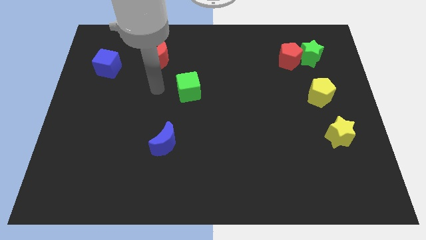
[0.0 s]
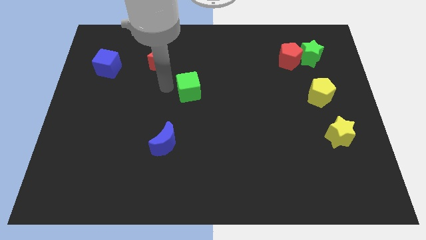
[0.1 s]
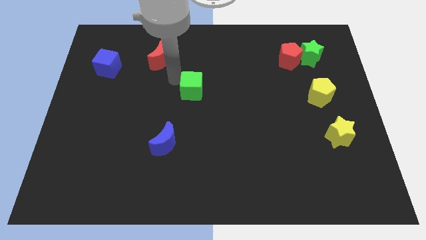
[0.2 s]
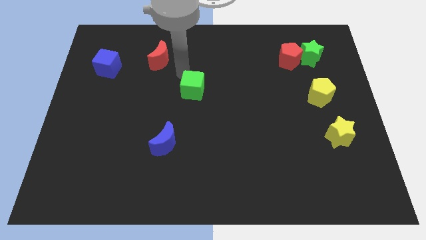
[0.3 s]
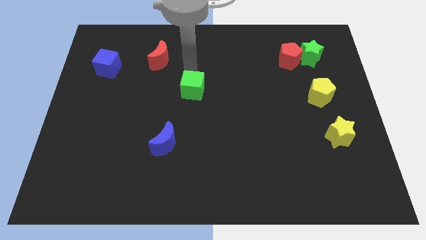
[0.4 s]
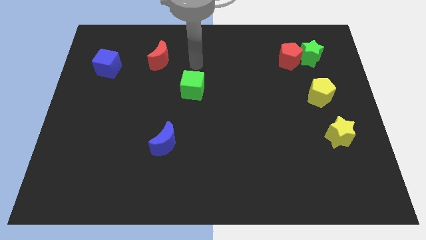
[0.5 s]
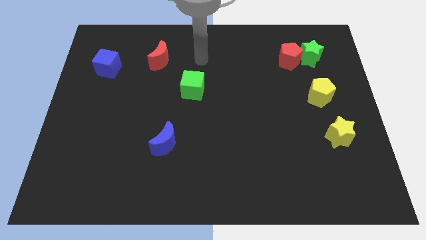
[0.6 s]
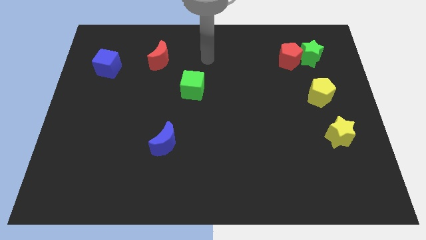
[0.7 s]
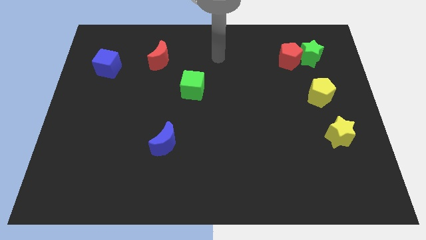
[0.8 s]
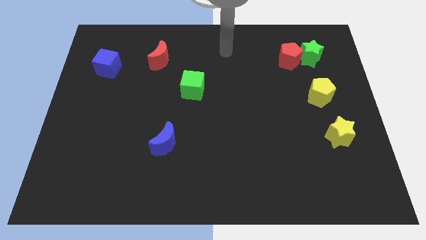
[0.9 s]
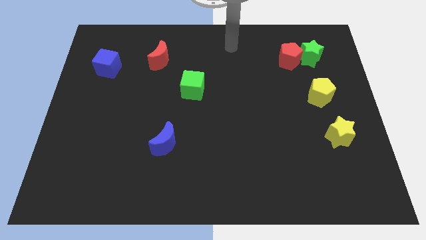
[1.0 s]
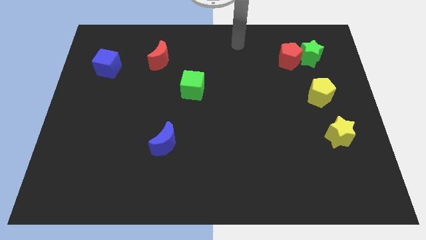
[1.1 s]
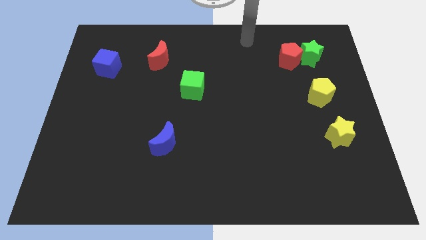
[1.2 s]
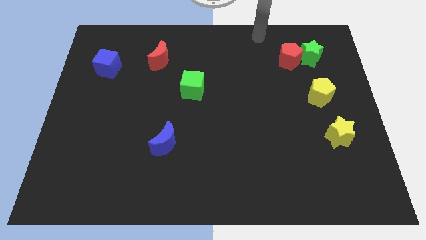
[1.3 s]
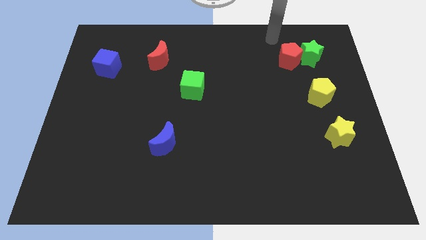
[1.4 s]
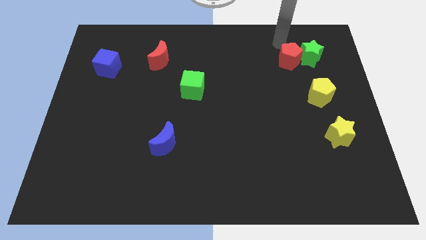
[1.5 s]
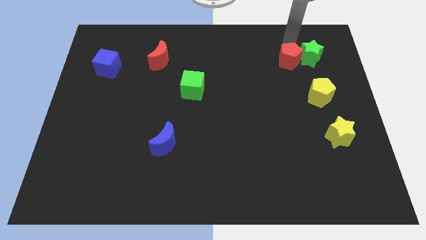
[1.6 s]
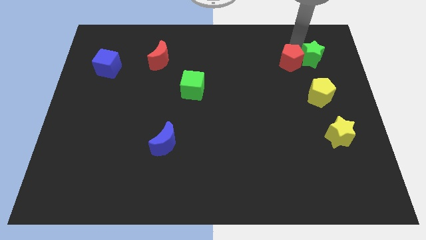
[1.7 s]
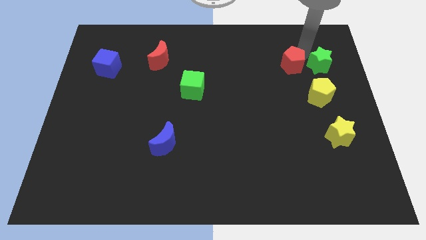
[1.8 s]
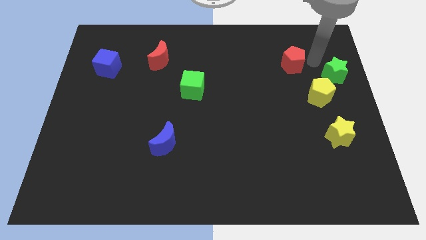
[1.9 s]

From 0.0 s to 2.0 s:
move the red pentagon away from the green star

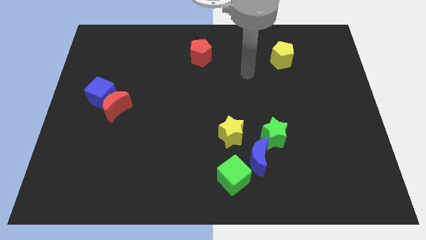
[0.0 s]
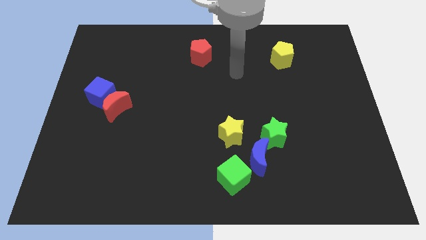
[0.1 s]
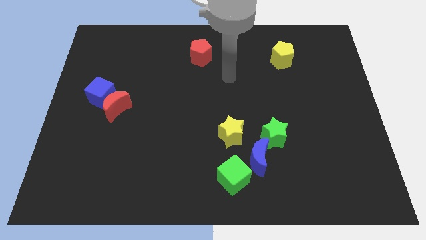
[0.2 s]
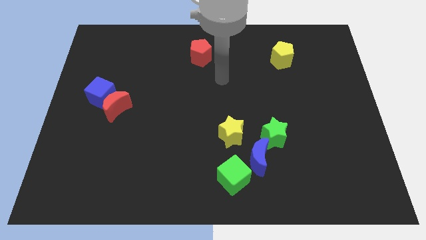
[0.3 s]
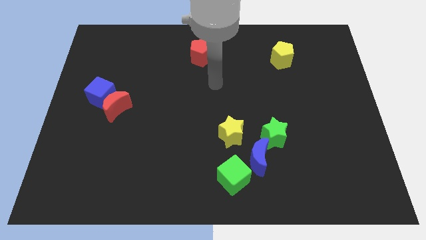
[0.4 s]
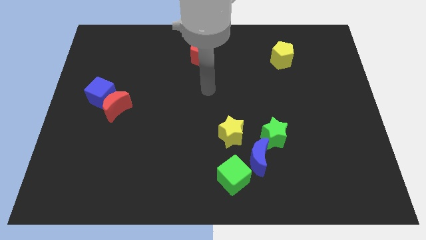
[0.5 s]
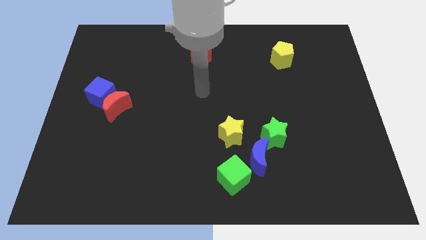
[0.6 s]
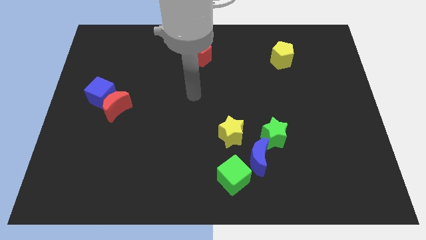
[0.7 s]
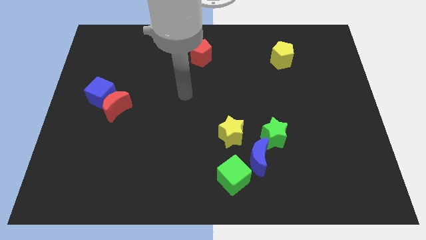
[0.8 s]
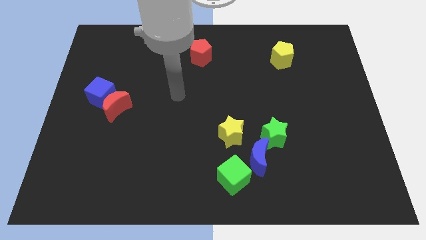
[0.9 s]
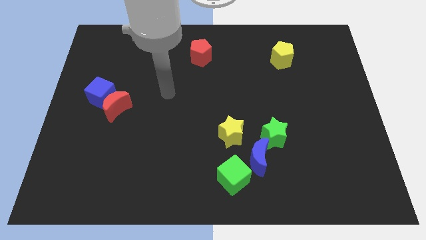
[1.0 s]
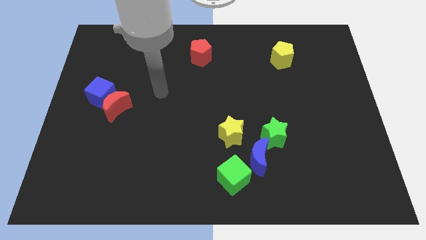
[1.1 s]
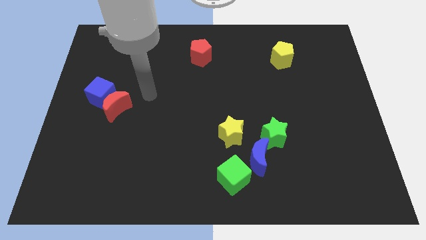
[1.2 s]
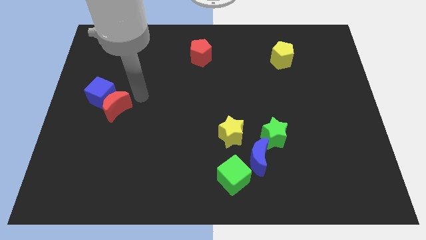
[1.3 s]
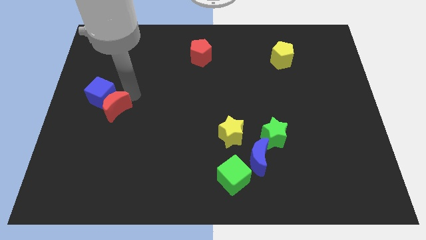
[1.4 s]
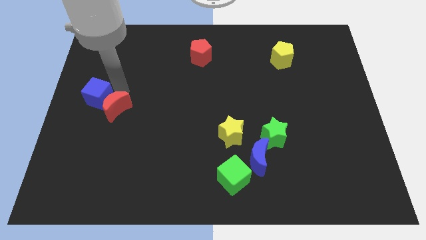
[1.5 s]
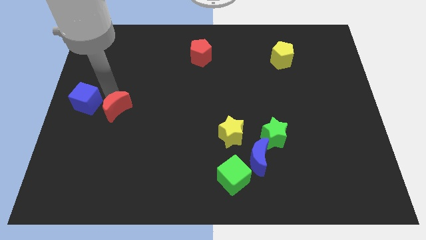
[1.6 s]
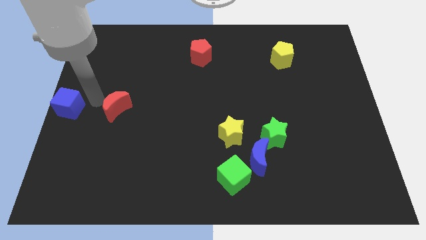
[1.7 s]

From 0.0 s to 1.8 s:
move the red moon away from the blue cube

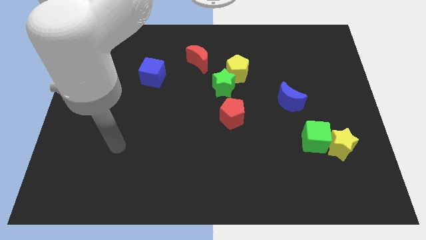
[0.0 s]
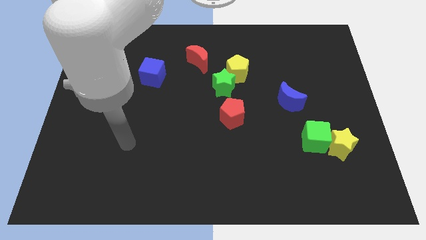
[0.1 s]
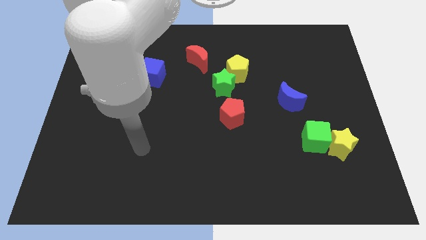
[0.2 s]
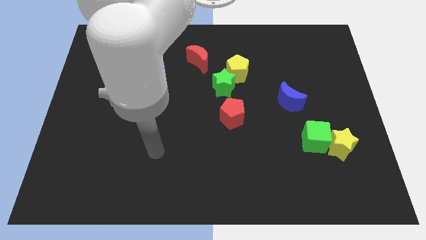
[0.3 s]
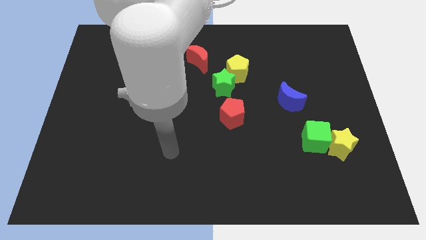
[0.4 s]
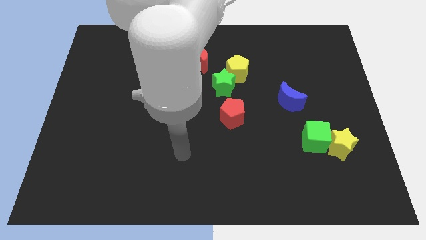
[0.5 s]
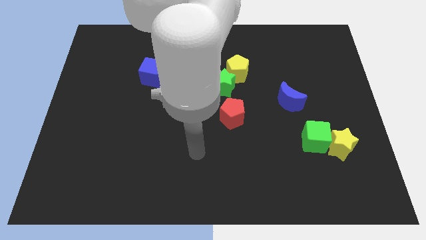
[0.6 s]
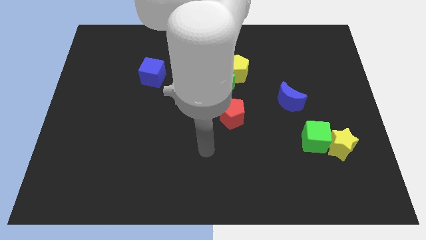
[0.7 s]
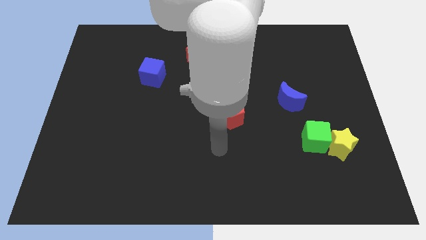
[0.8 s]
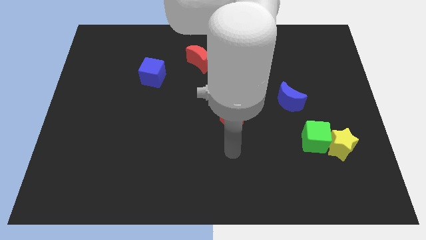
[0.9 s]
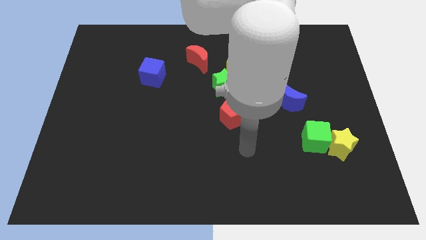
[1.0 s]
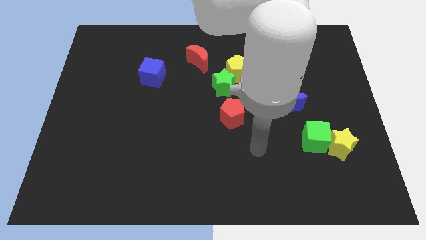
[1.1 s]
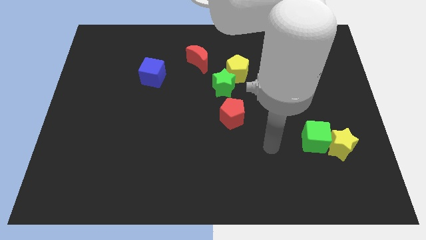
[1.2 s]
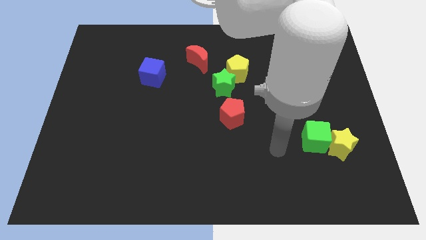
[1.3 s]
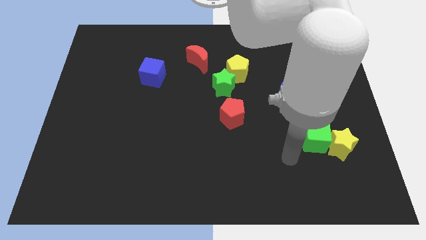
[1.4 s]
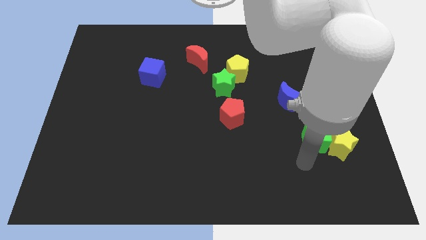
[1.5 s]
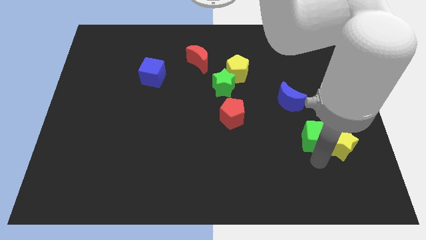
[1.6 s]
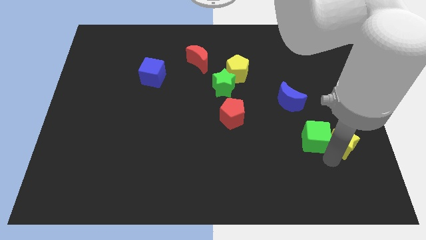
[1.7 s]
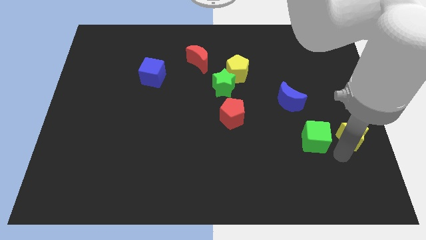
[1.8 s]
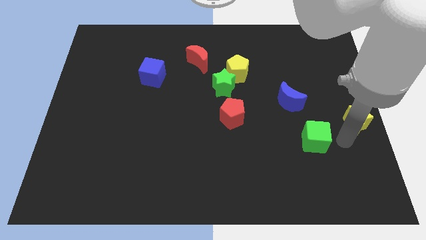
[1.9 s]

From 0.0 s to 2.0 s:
separate the green cube from the yellow star

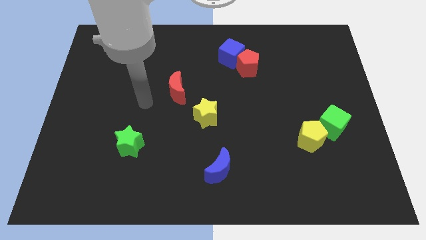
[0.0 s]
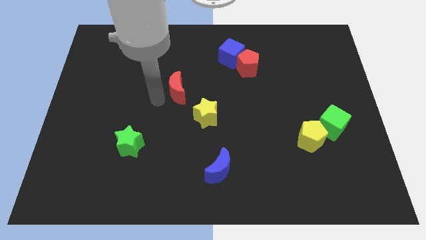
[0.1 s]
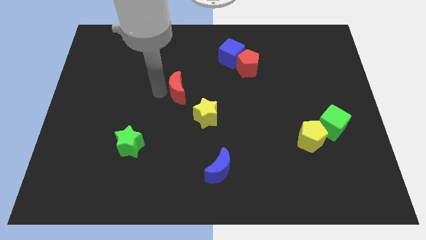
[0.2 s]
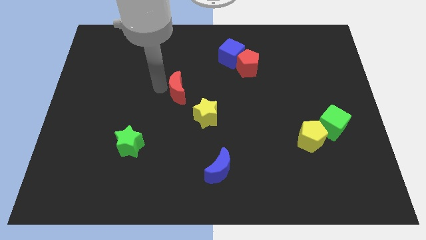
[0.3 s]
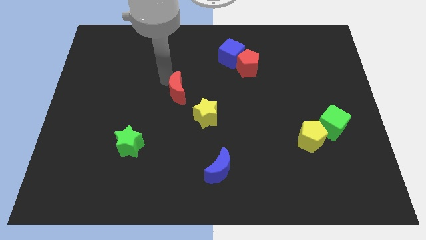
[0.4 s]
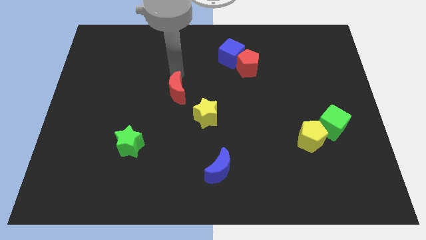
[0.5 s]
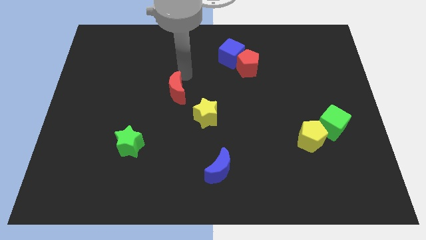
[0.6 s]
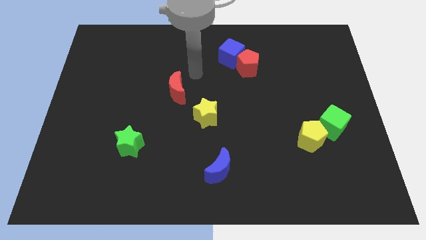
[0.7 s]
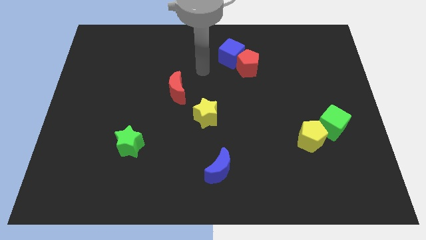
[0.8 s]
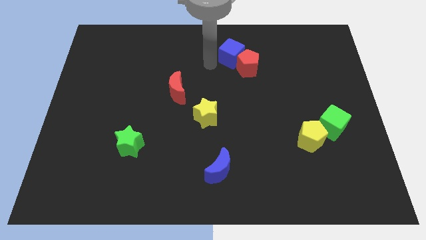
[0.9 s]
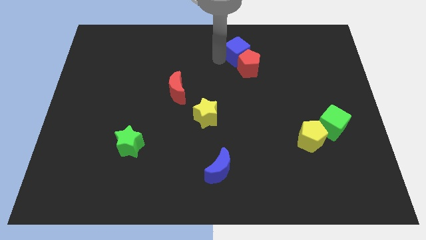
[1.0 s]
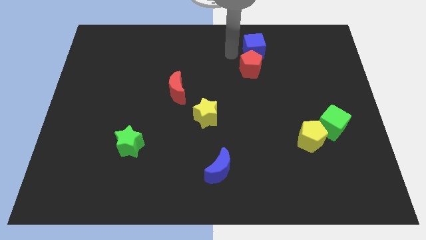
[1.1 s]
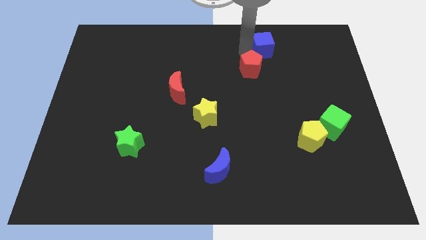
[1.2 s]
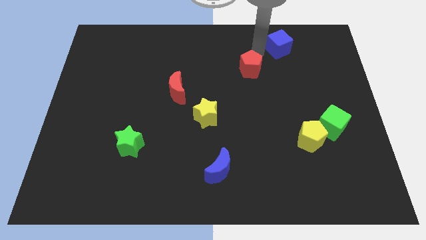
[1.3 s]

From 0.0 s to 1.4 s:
pull the red pentagon apart from the blue cube

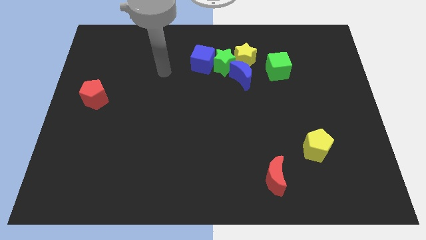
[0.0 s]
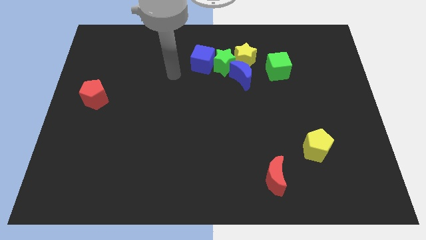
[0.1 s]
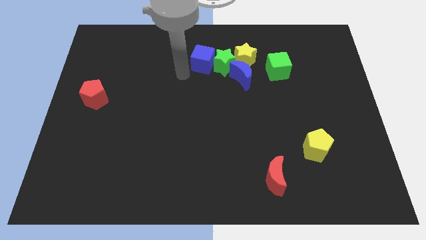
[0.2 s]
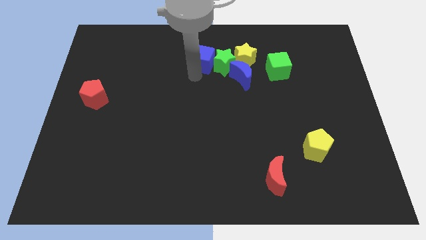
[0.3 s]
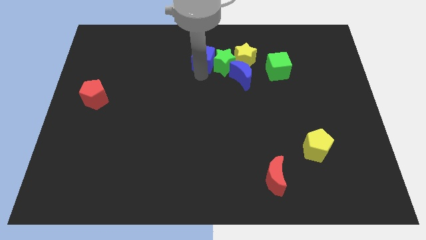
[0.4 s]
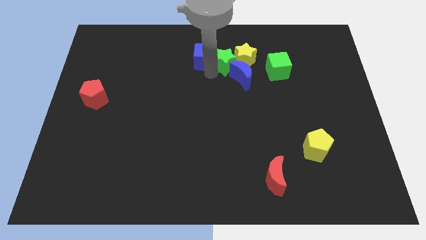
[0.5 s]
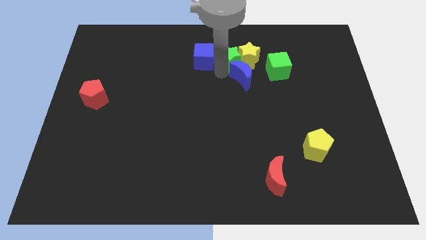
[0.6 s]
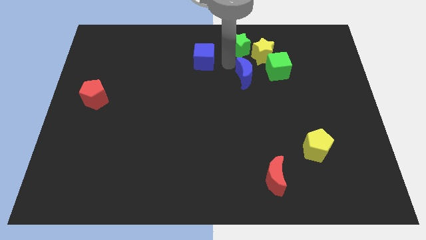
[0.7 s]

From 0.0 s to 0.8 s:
separate the blue cube from the green star

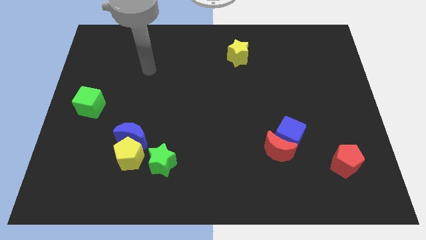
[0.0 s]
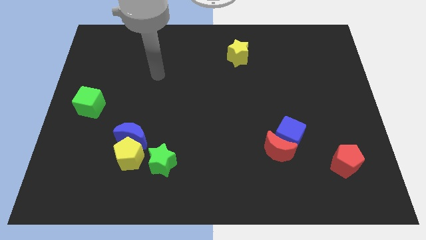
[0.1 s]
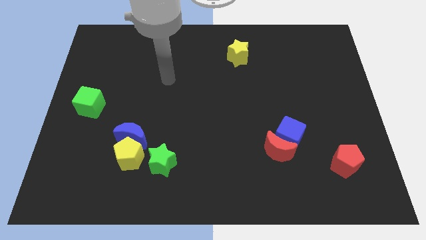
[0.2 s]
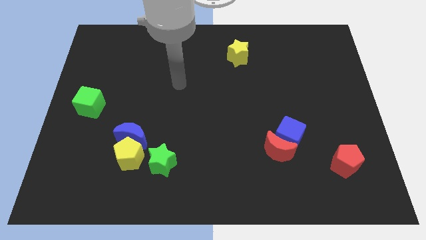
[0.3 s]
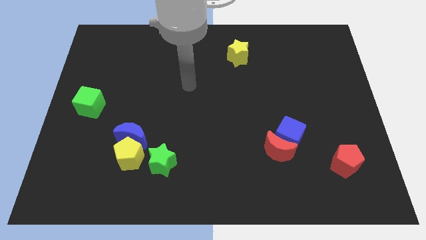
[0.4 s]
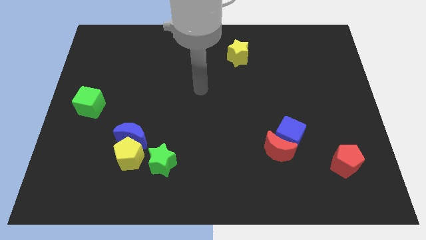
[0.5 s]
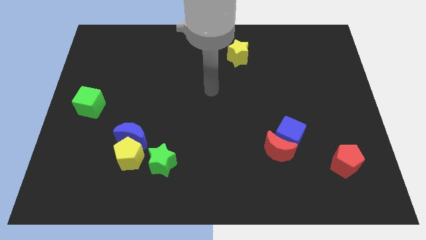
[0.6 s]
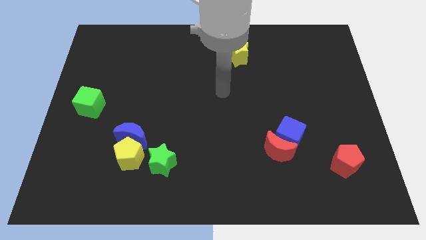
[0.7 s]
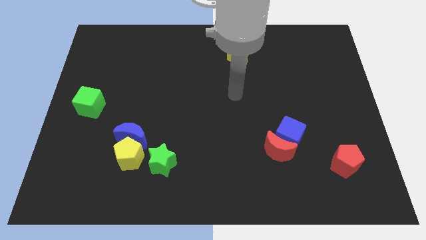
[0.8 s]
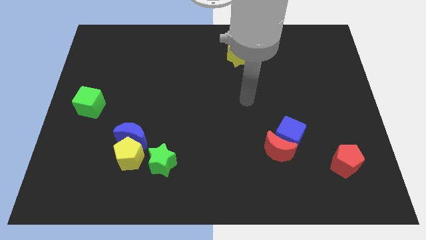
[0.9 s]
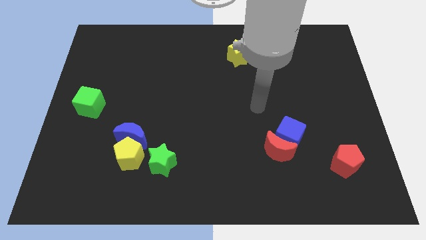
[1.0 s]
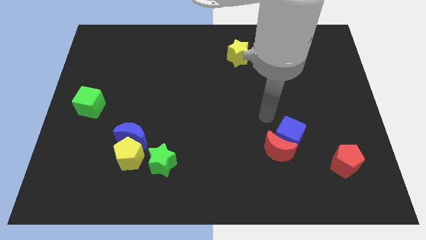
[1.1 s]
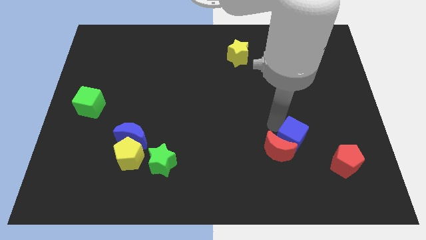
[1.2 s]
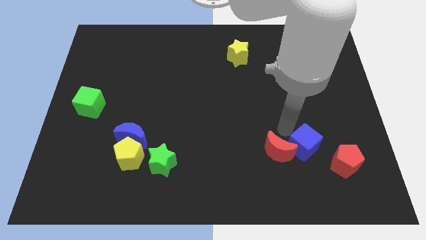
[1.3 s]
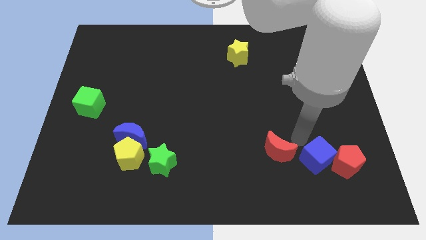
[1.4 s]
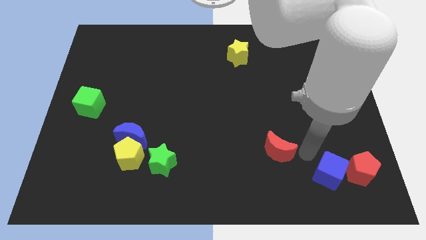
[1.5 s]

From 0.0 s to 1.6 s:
pull the red moon apart from the blue cube
